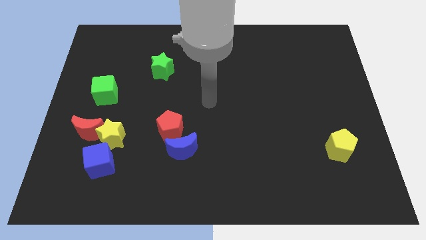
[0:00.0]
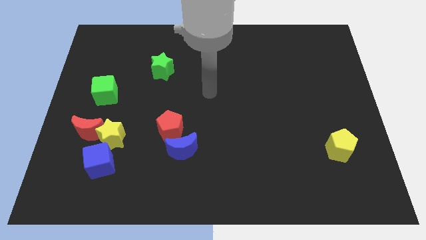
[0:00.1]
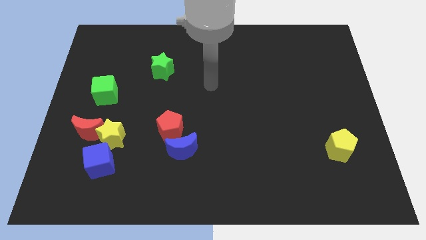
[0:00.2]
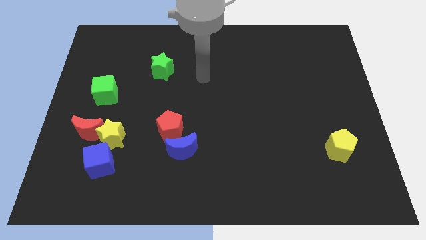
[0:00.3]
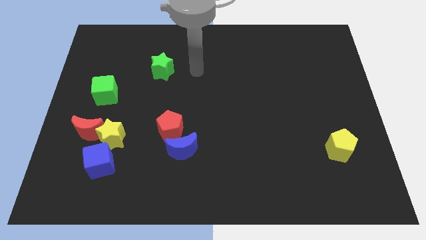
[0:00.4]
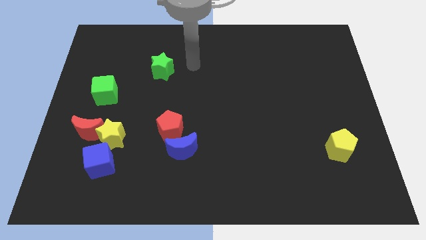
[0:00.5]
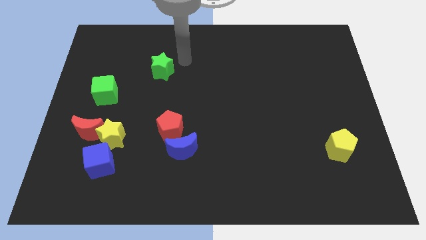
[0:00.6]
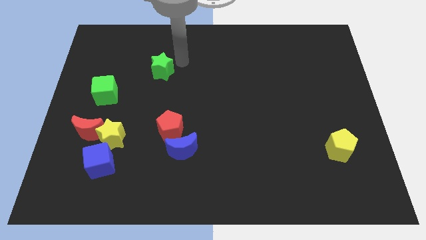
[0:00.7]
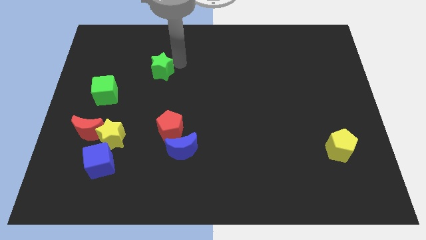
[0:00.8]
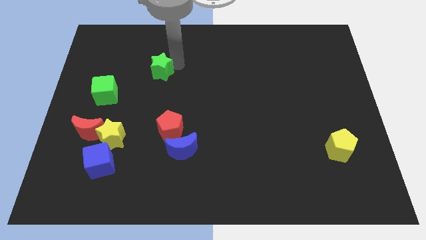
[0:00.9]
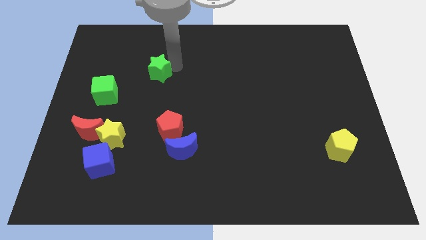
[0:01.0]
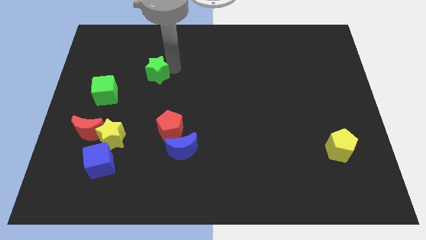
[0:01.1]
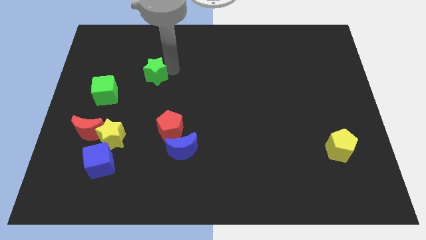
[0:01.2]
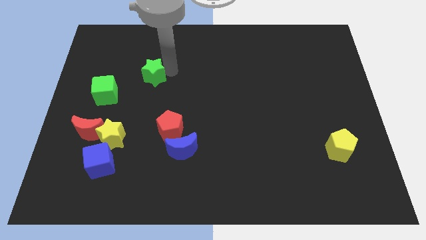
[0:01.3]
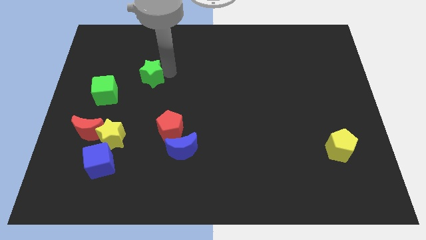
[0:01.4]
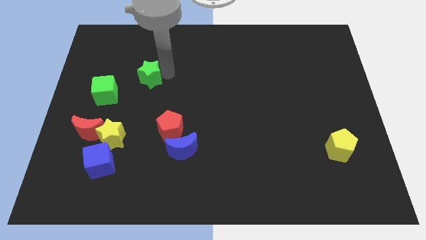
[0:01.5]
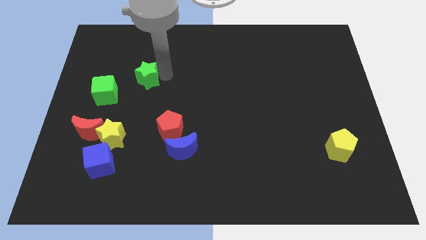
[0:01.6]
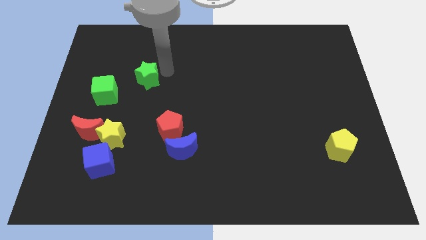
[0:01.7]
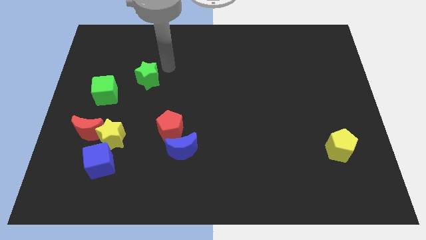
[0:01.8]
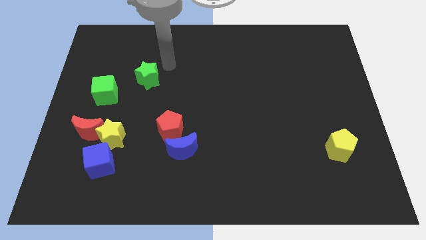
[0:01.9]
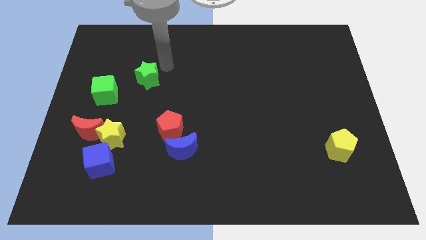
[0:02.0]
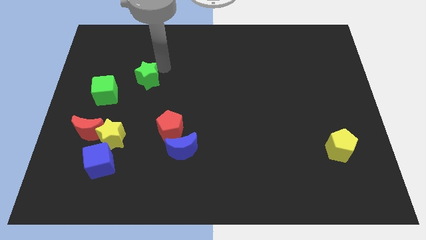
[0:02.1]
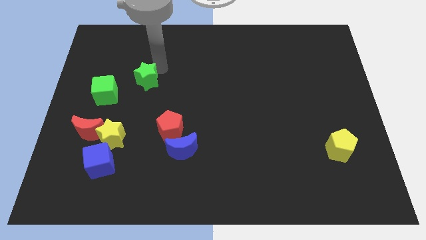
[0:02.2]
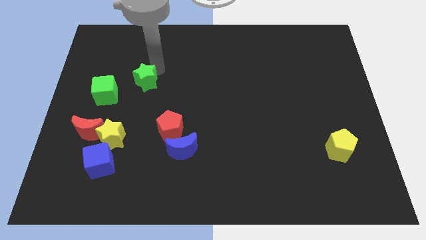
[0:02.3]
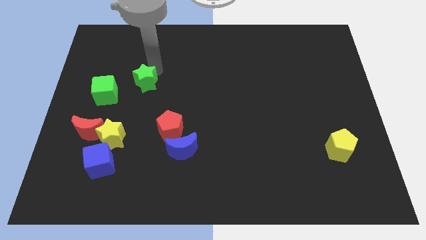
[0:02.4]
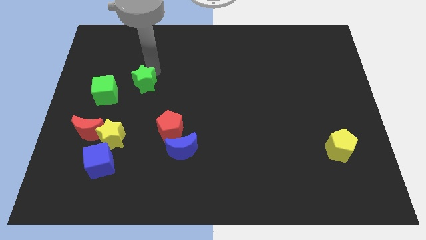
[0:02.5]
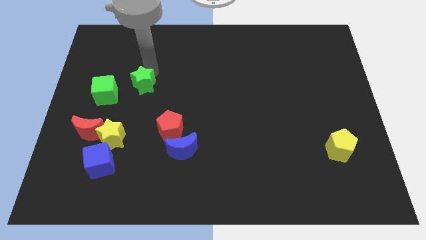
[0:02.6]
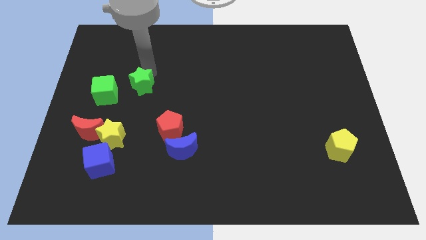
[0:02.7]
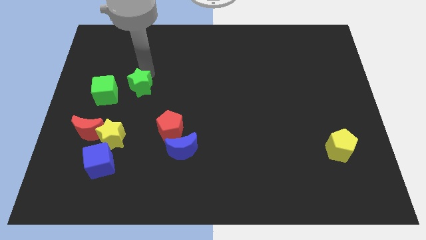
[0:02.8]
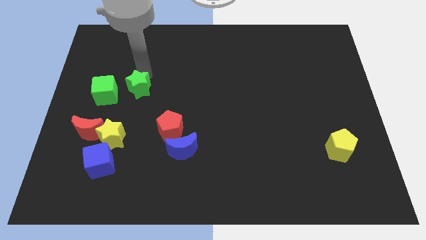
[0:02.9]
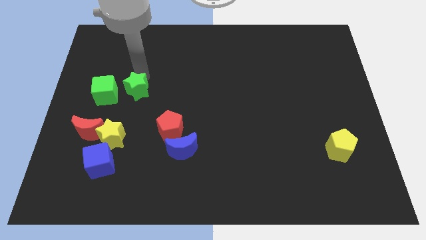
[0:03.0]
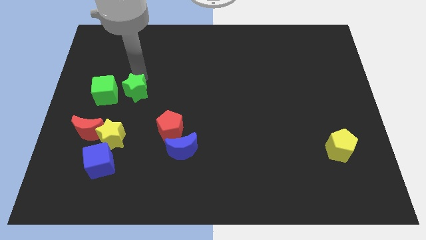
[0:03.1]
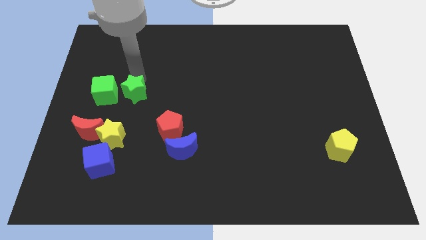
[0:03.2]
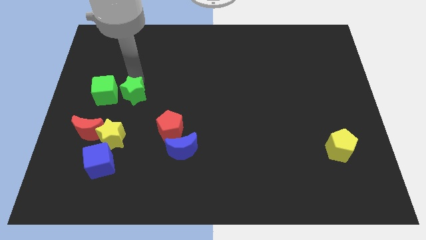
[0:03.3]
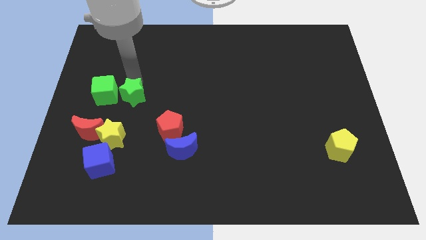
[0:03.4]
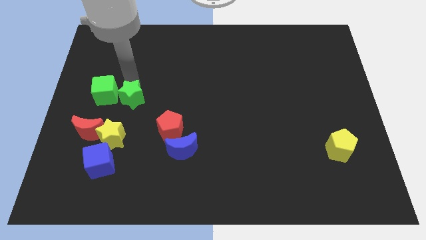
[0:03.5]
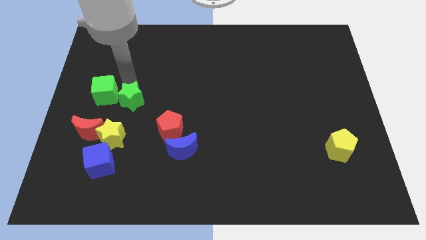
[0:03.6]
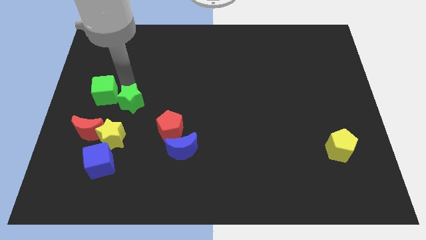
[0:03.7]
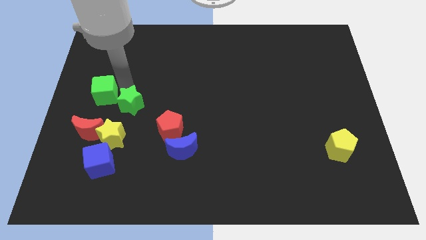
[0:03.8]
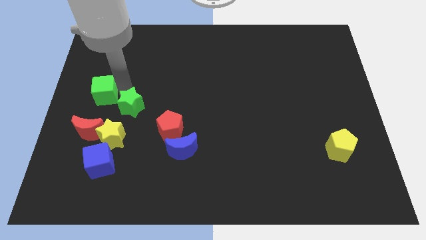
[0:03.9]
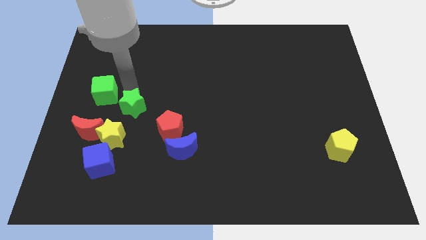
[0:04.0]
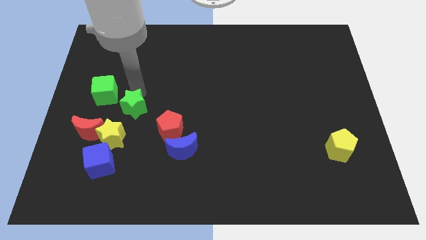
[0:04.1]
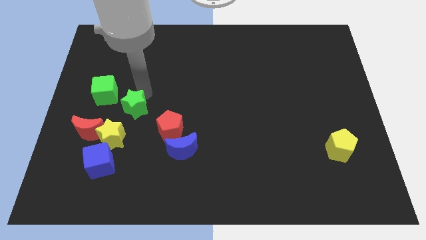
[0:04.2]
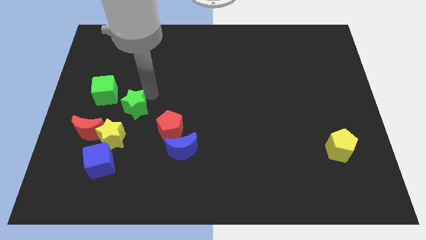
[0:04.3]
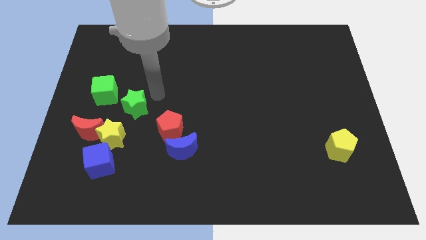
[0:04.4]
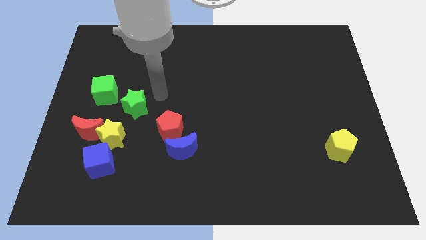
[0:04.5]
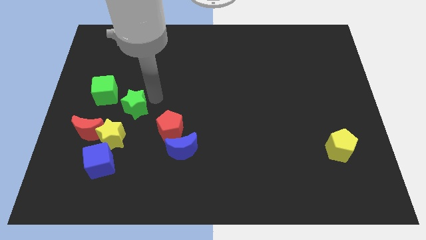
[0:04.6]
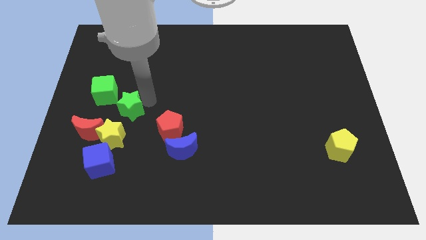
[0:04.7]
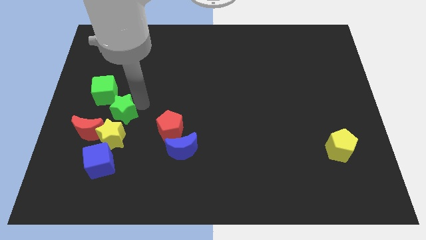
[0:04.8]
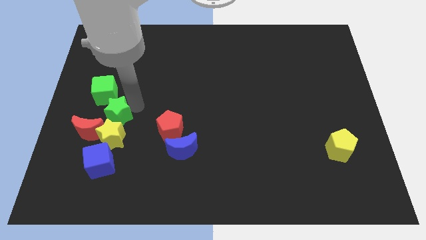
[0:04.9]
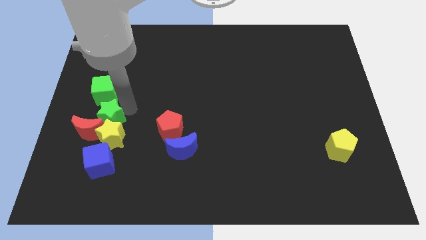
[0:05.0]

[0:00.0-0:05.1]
put the green star to the red moon

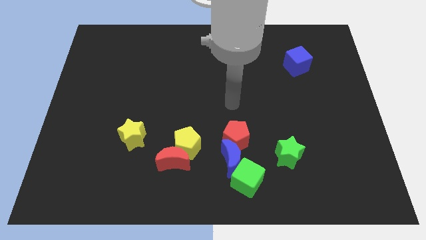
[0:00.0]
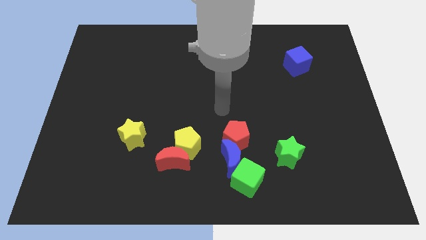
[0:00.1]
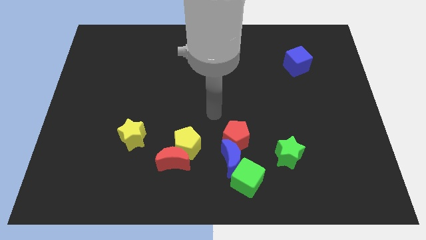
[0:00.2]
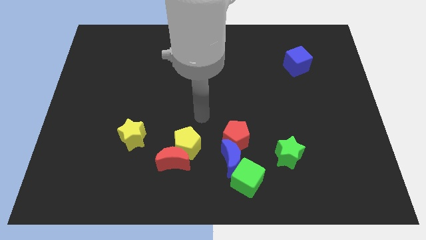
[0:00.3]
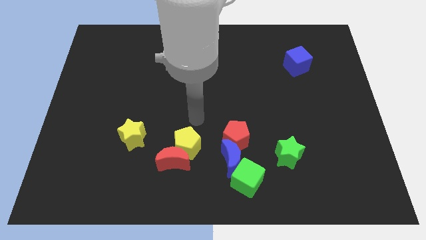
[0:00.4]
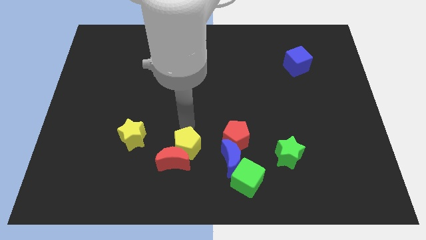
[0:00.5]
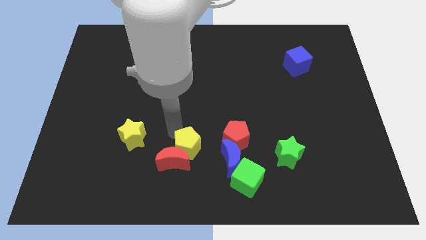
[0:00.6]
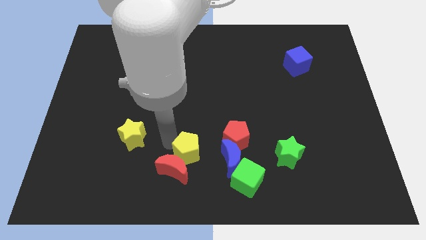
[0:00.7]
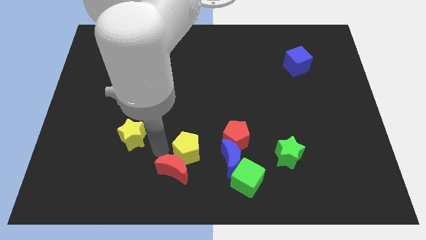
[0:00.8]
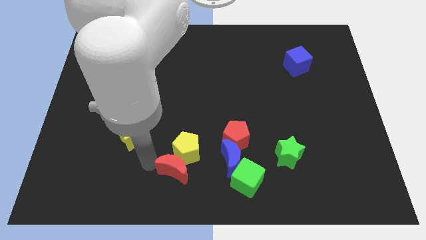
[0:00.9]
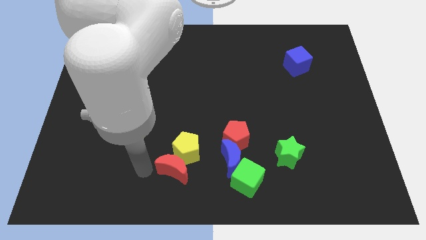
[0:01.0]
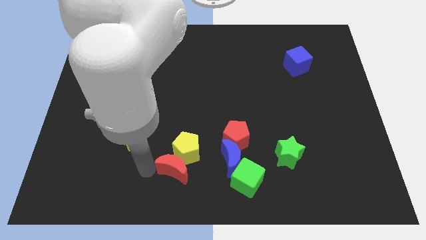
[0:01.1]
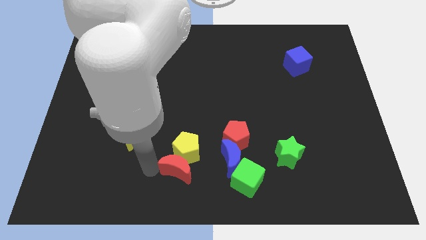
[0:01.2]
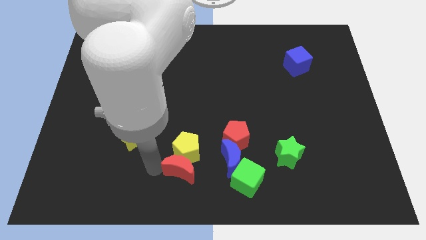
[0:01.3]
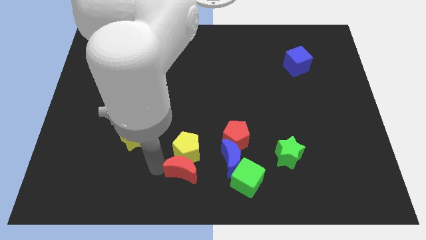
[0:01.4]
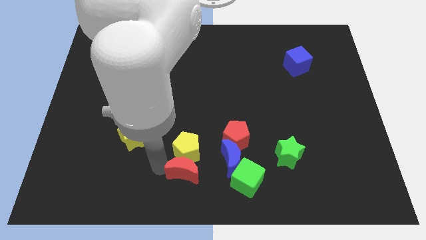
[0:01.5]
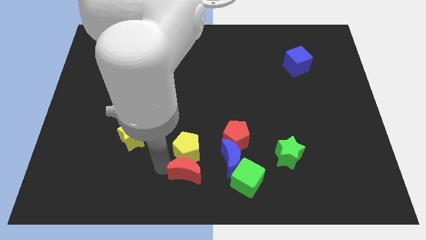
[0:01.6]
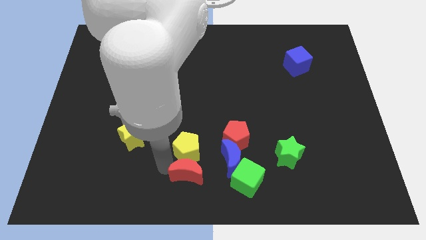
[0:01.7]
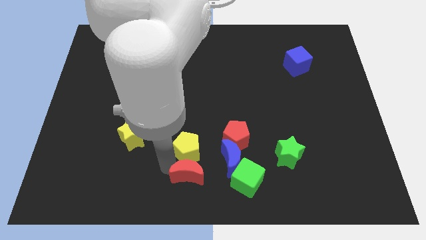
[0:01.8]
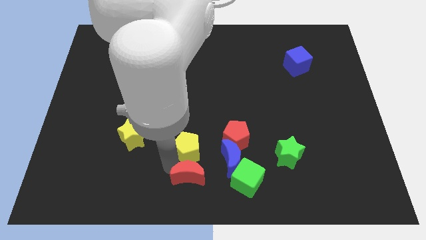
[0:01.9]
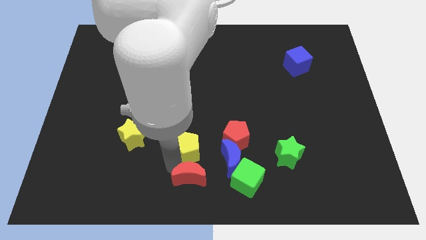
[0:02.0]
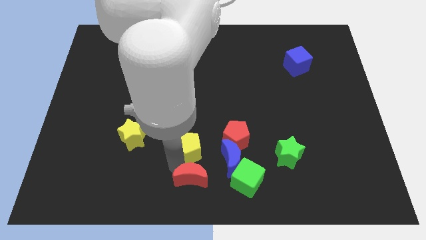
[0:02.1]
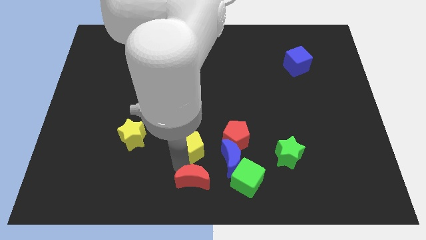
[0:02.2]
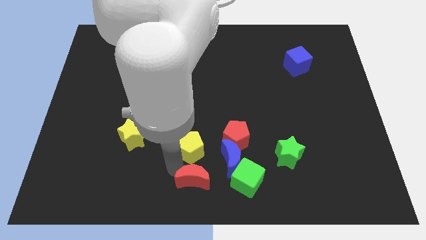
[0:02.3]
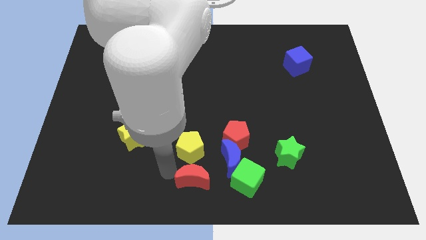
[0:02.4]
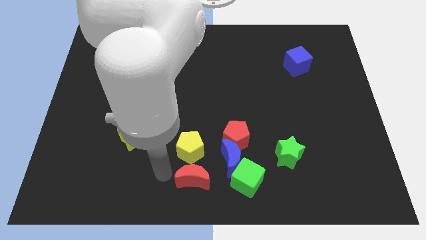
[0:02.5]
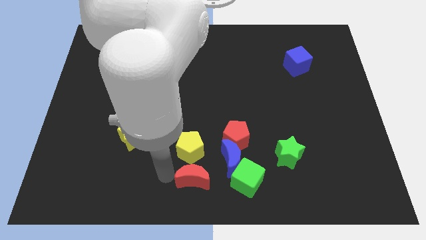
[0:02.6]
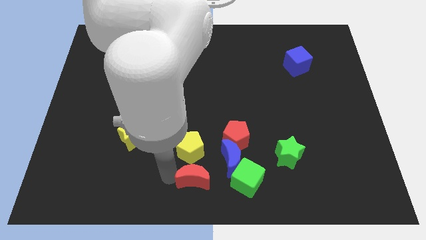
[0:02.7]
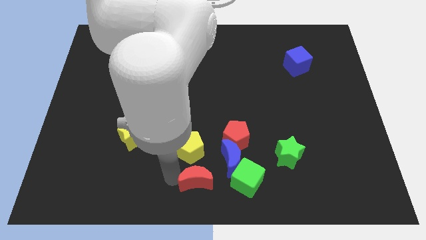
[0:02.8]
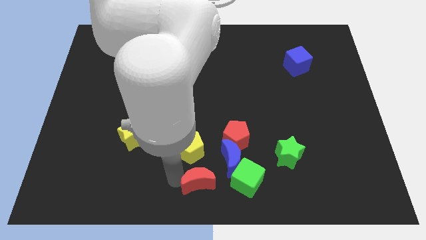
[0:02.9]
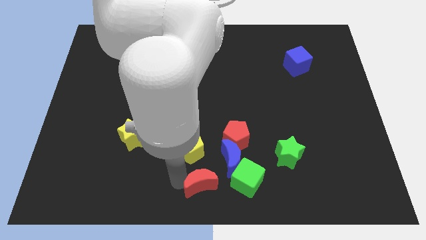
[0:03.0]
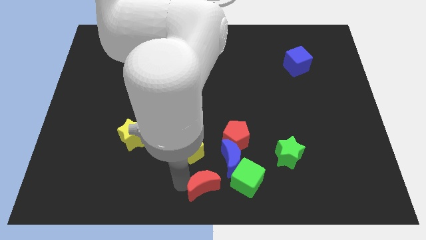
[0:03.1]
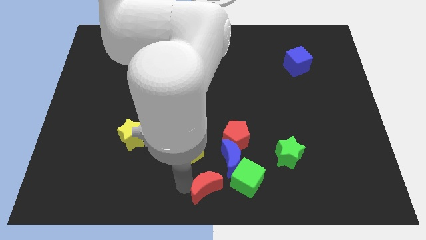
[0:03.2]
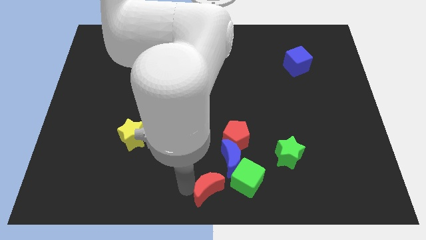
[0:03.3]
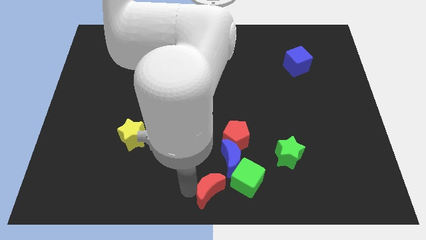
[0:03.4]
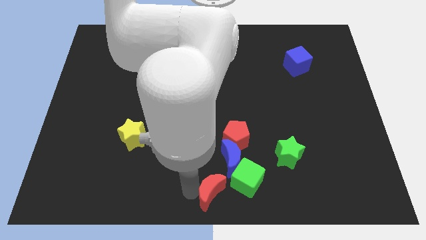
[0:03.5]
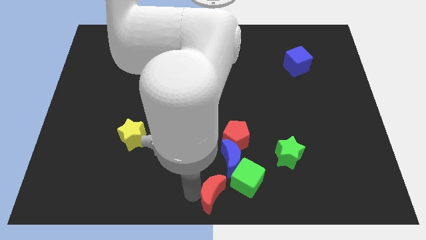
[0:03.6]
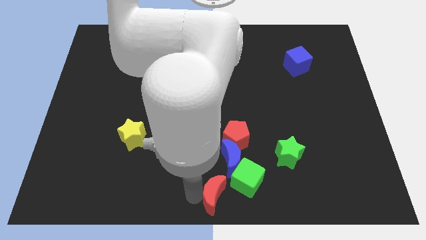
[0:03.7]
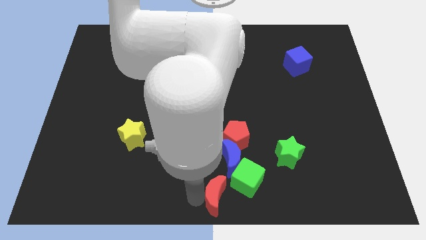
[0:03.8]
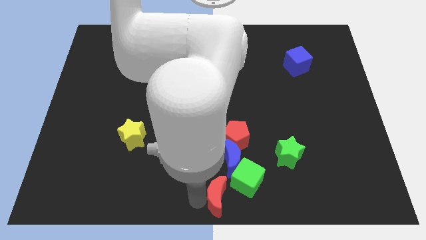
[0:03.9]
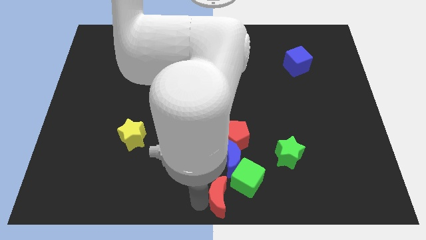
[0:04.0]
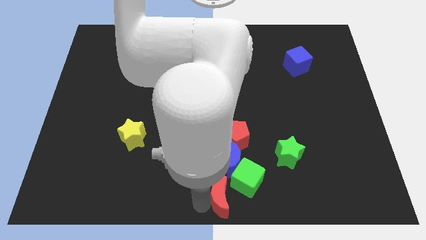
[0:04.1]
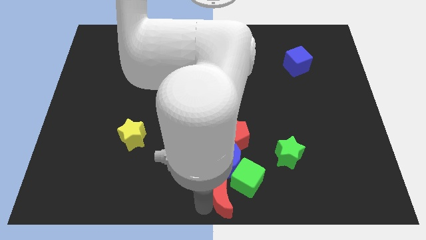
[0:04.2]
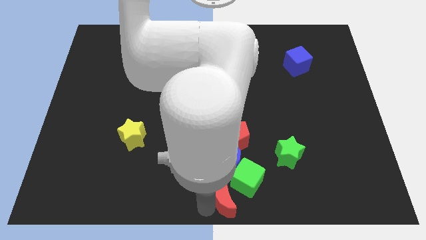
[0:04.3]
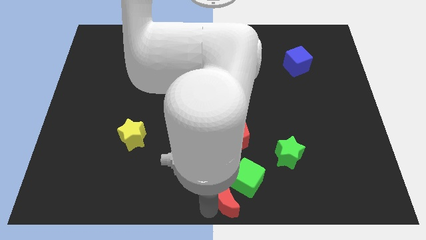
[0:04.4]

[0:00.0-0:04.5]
slide the red moon towards the green cube
